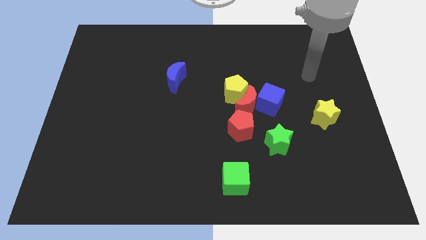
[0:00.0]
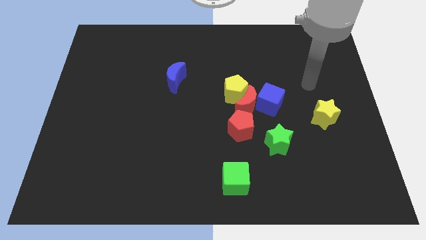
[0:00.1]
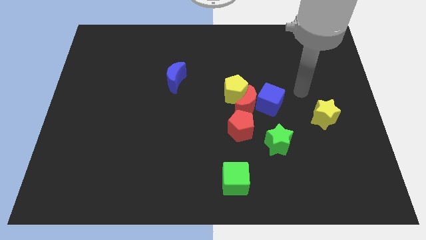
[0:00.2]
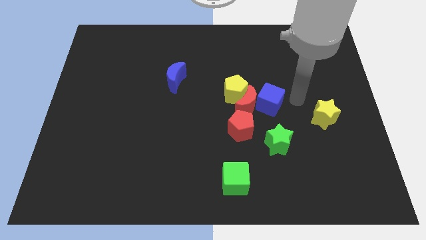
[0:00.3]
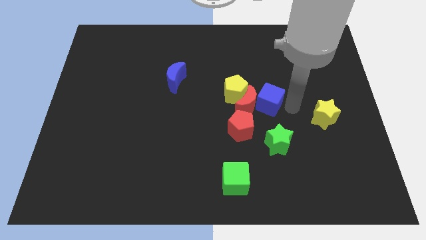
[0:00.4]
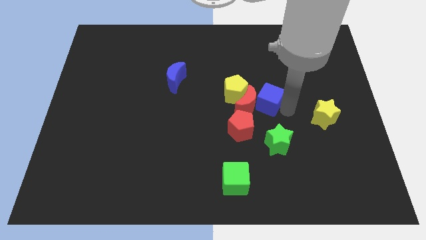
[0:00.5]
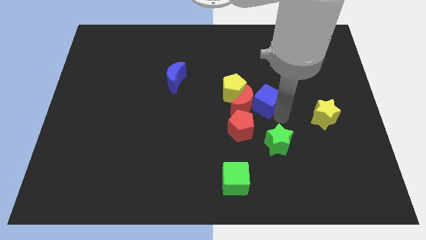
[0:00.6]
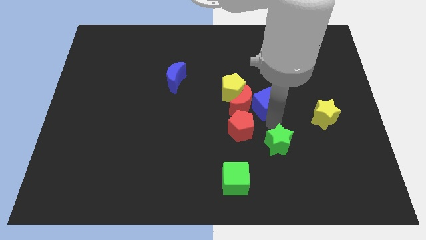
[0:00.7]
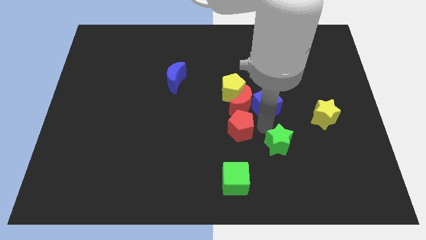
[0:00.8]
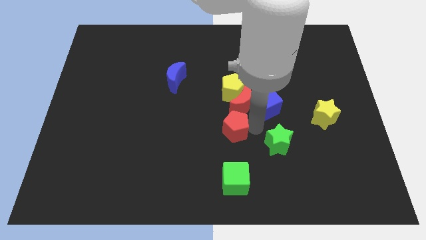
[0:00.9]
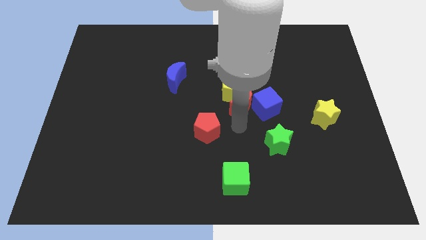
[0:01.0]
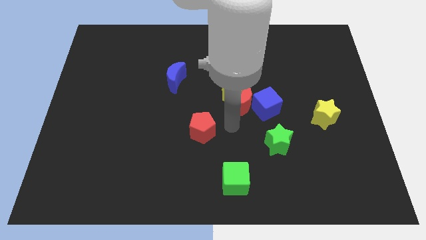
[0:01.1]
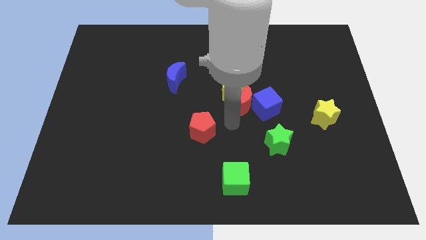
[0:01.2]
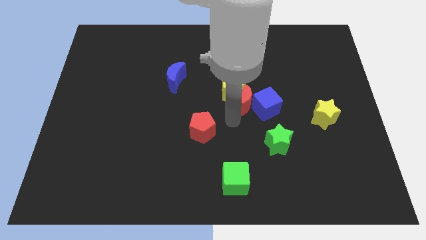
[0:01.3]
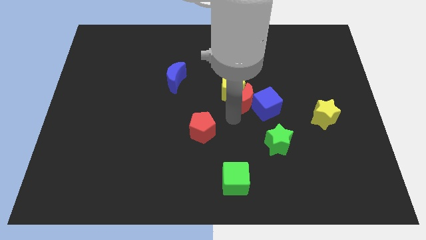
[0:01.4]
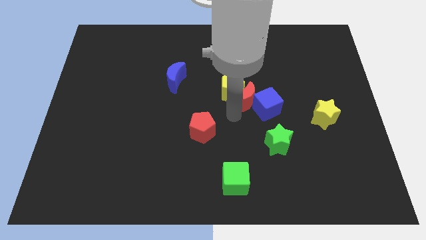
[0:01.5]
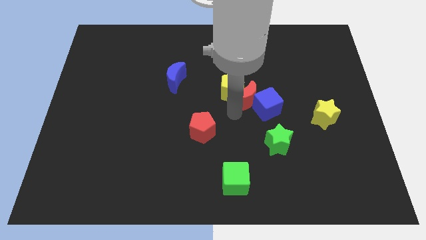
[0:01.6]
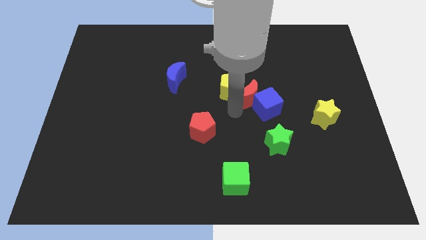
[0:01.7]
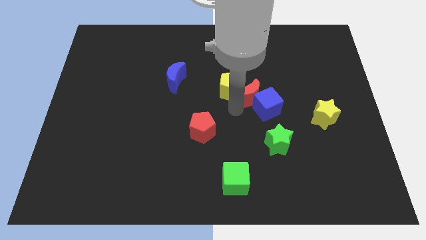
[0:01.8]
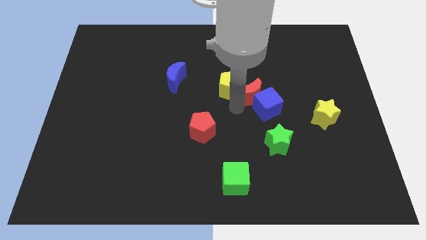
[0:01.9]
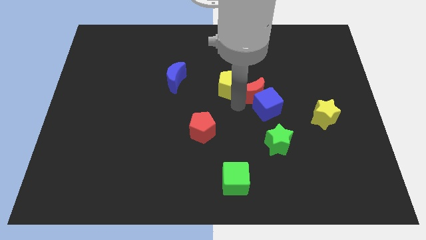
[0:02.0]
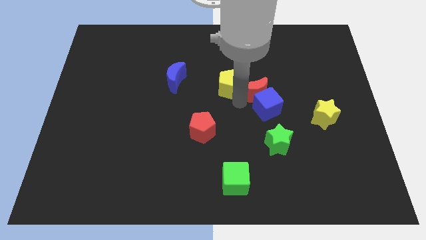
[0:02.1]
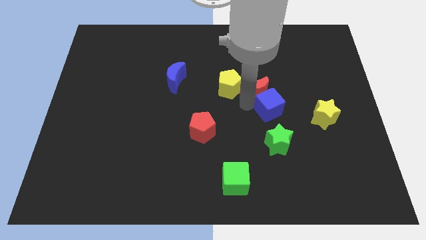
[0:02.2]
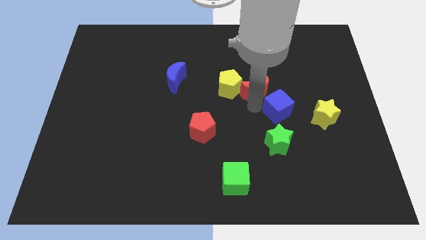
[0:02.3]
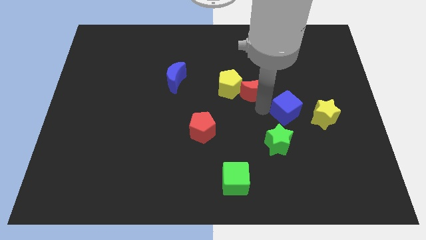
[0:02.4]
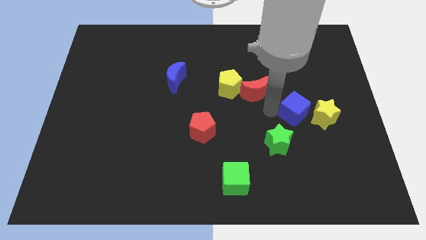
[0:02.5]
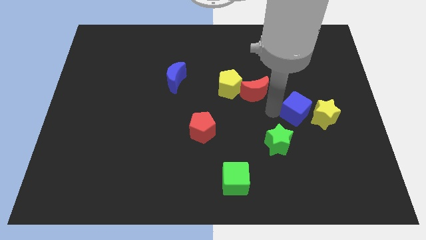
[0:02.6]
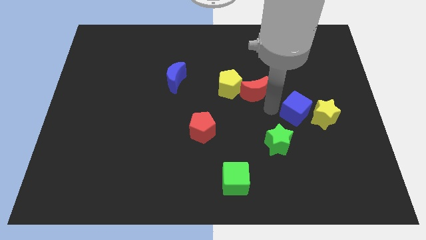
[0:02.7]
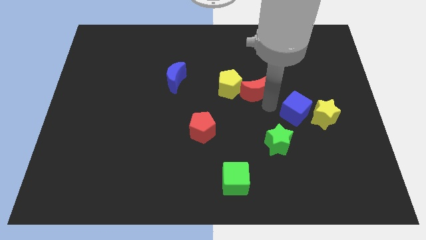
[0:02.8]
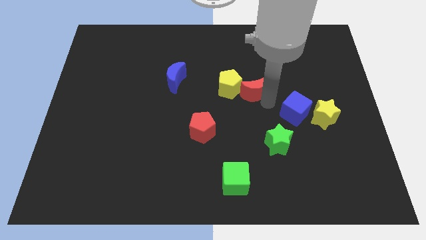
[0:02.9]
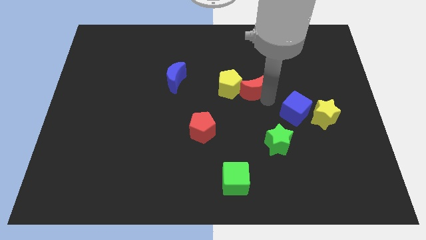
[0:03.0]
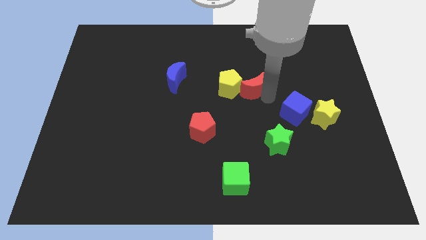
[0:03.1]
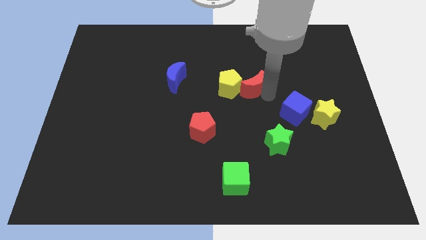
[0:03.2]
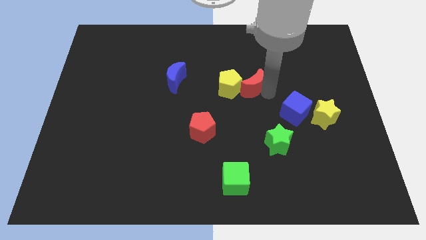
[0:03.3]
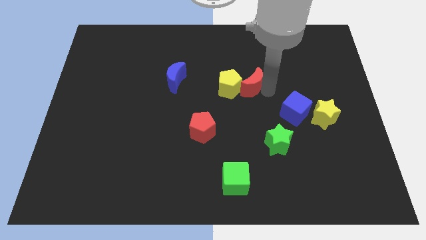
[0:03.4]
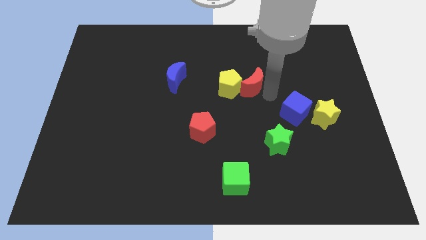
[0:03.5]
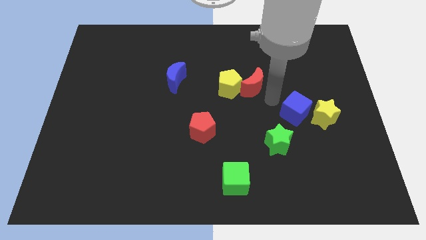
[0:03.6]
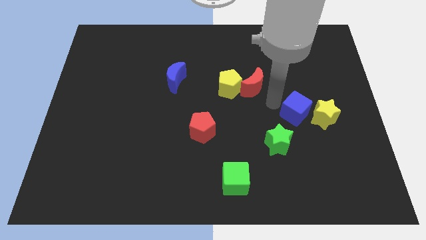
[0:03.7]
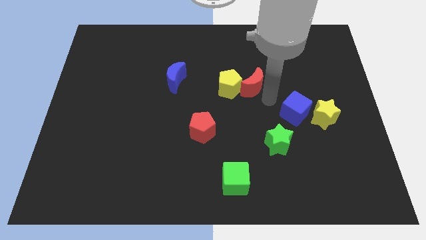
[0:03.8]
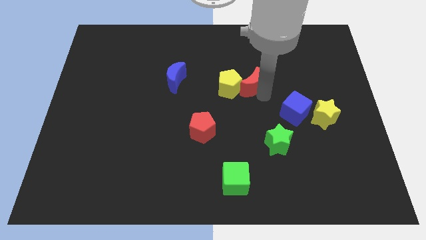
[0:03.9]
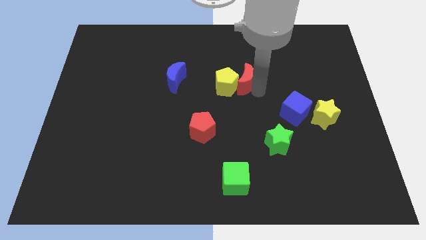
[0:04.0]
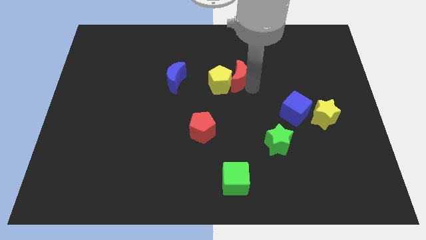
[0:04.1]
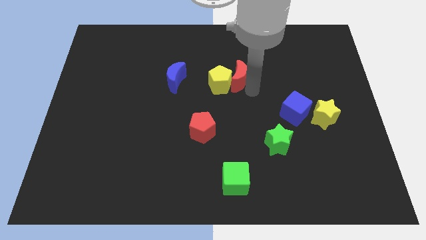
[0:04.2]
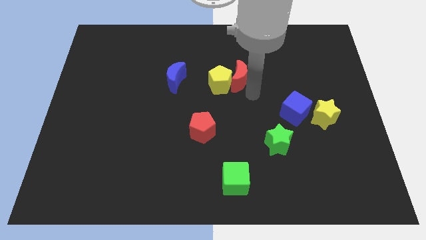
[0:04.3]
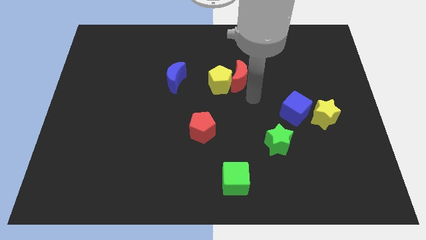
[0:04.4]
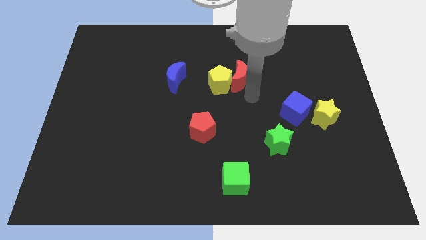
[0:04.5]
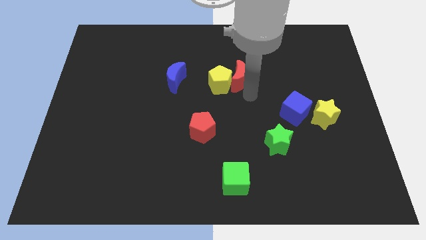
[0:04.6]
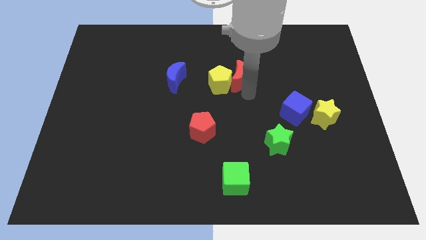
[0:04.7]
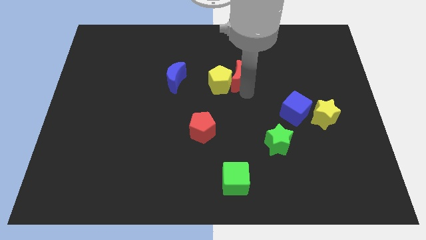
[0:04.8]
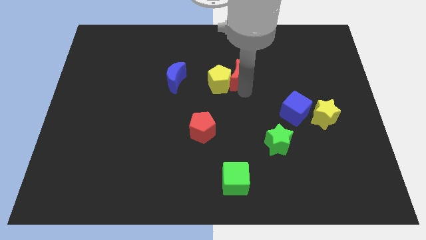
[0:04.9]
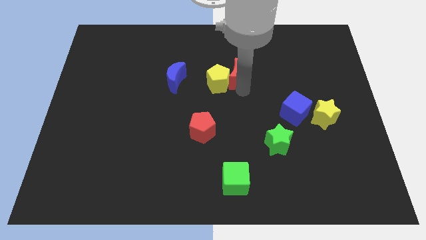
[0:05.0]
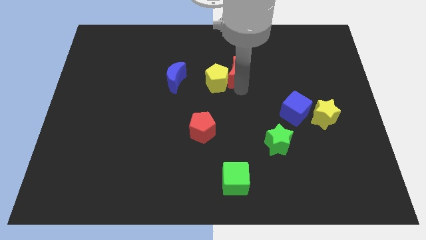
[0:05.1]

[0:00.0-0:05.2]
separate the red moon from the clump

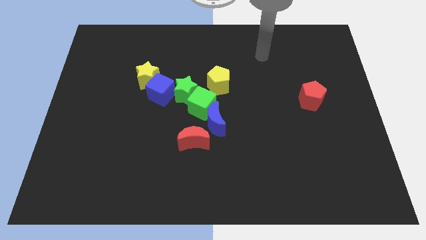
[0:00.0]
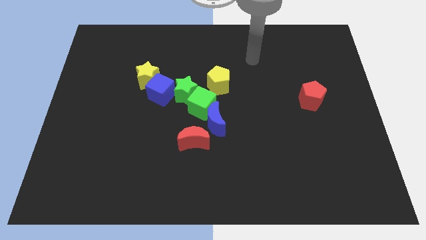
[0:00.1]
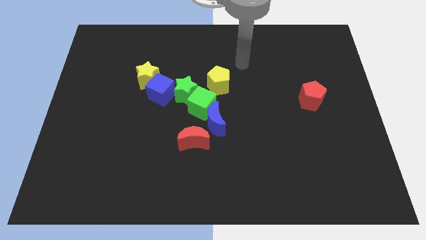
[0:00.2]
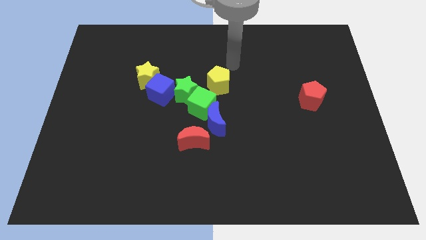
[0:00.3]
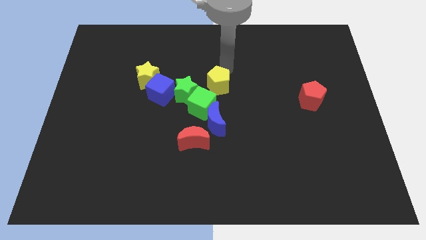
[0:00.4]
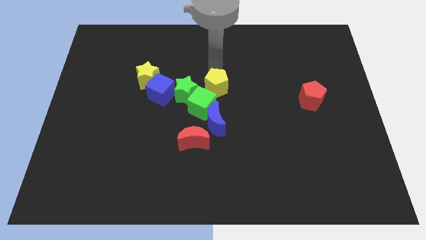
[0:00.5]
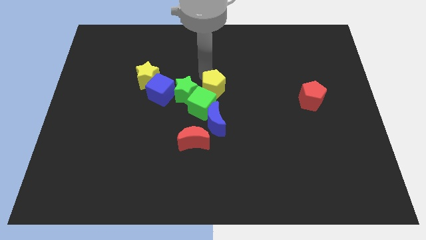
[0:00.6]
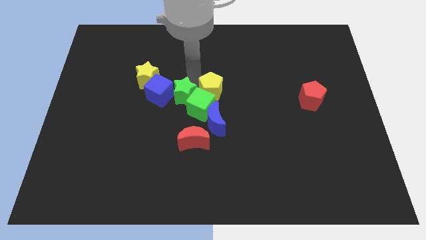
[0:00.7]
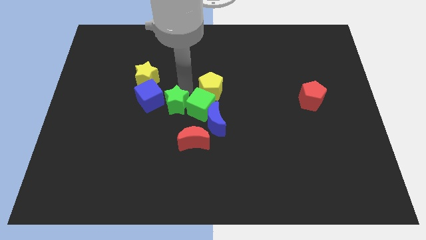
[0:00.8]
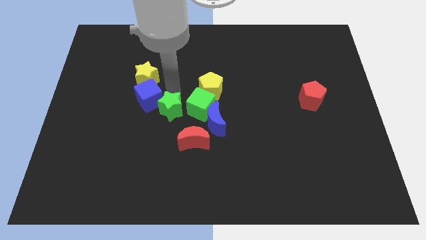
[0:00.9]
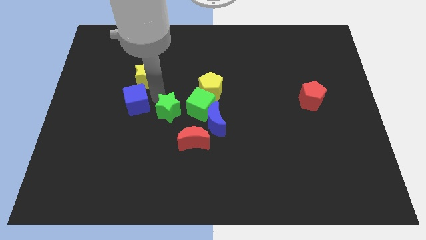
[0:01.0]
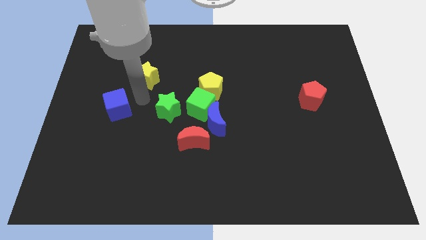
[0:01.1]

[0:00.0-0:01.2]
pull the yellow star apart from the blue cube

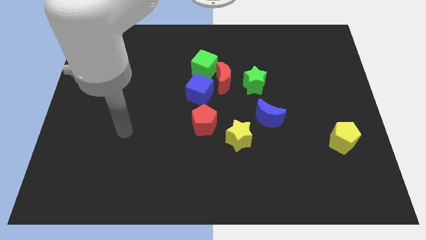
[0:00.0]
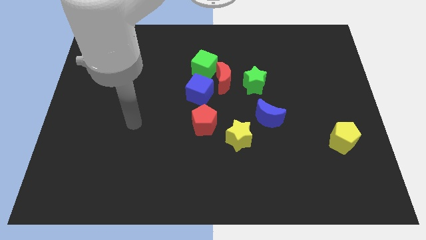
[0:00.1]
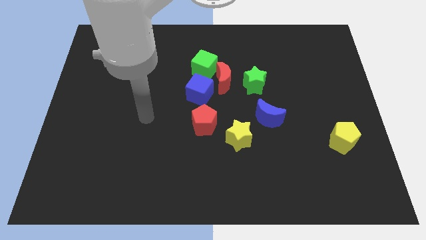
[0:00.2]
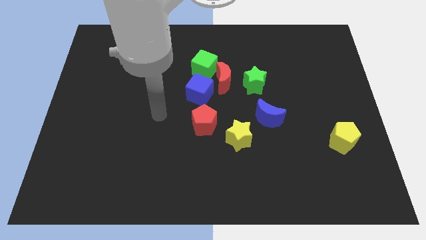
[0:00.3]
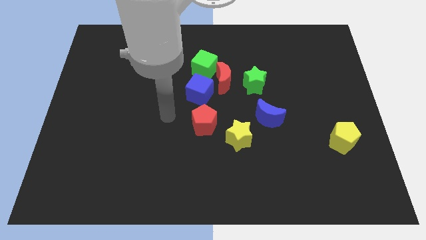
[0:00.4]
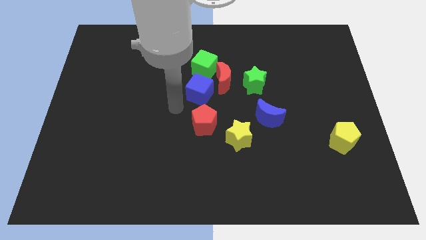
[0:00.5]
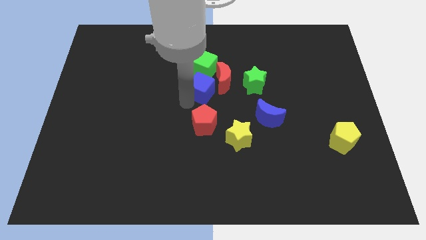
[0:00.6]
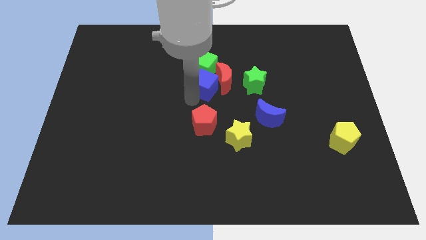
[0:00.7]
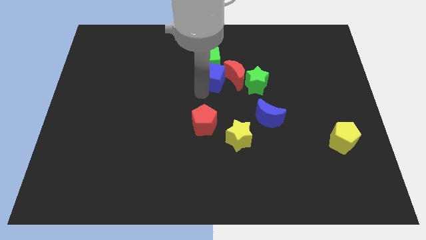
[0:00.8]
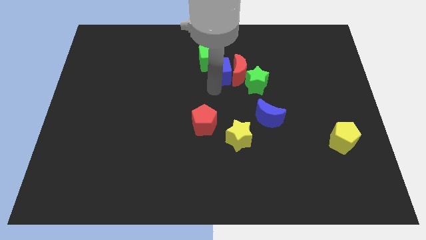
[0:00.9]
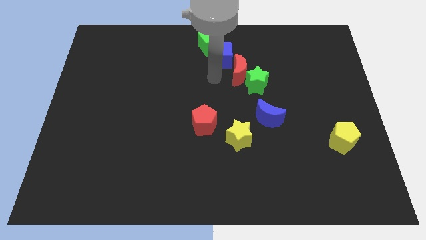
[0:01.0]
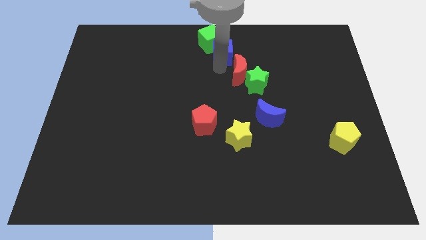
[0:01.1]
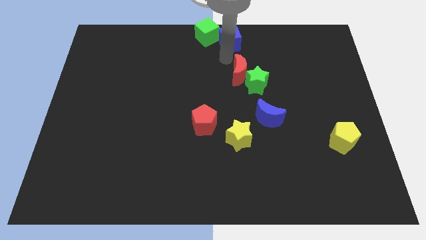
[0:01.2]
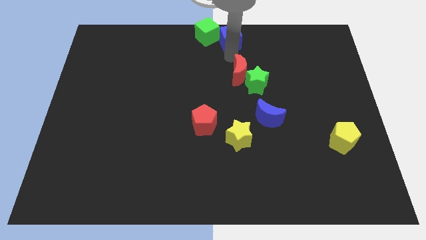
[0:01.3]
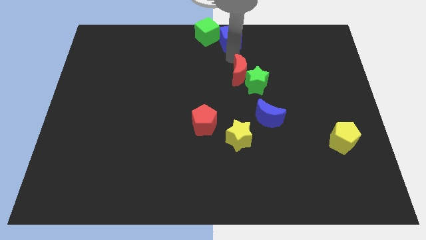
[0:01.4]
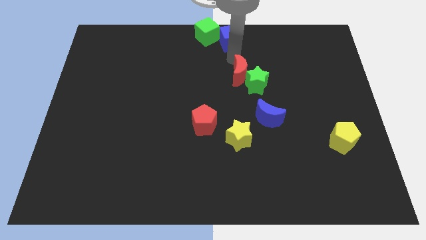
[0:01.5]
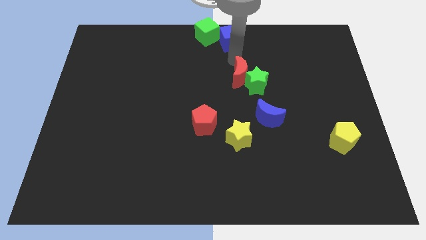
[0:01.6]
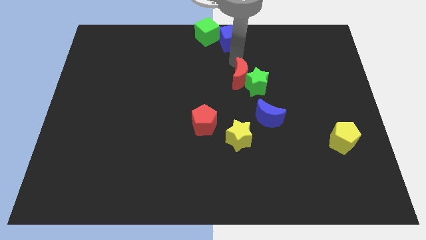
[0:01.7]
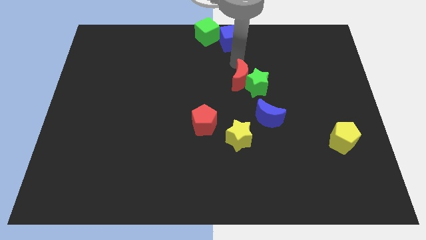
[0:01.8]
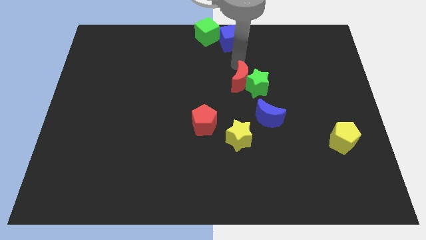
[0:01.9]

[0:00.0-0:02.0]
pull the red moon apart from the green cube, blue cube, and green star

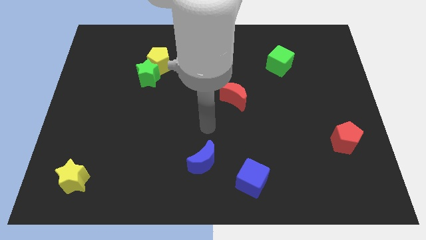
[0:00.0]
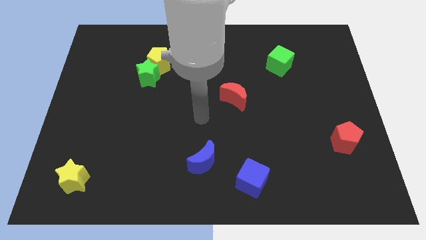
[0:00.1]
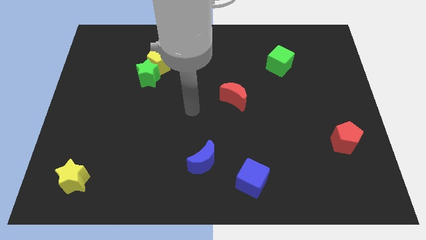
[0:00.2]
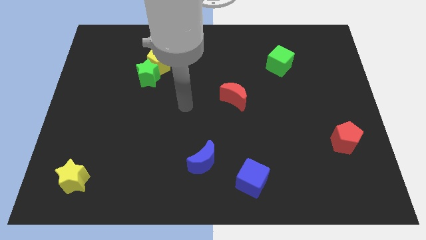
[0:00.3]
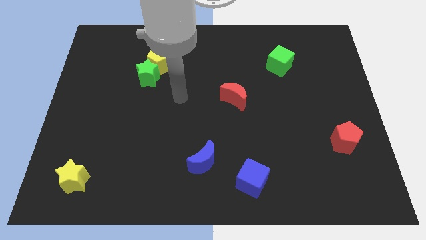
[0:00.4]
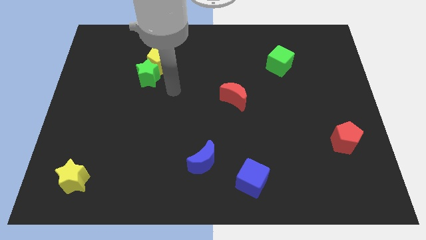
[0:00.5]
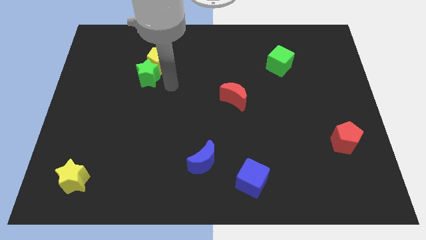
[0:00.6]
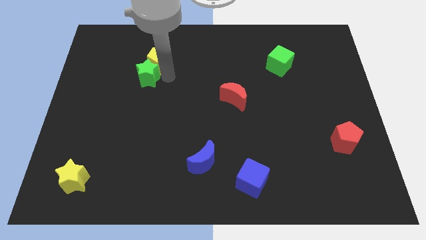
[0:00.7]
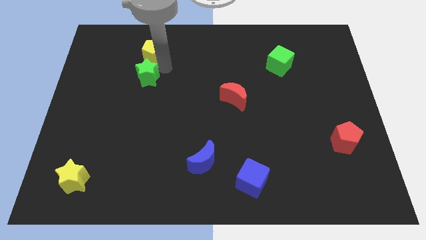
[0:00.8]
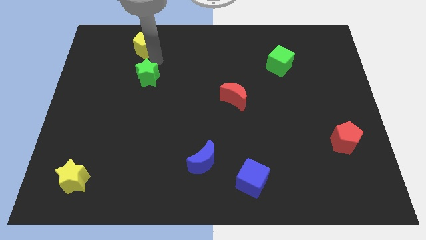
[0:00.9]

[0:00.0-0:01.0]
move the green star away from the yellow pentagon
